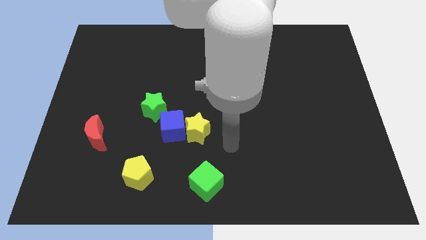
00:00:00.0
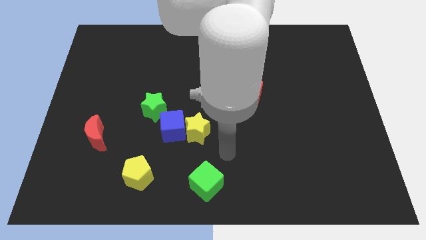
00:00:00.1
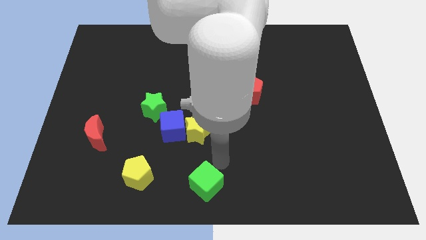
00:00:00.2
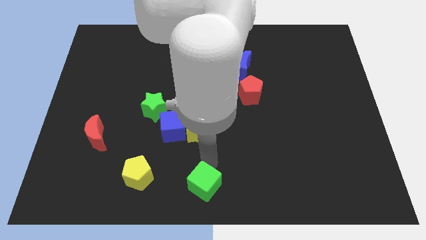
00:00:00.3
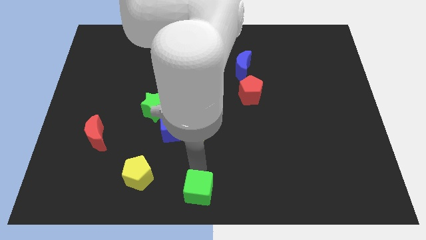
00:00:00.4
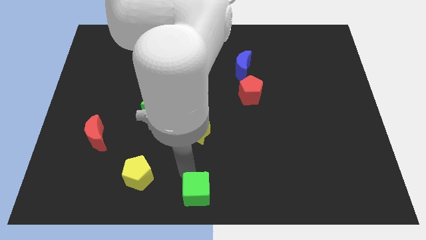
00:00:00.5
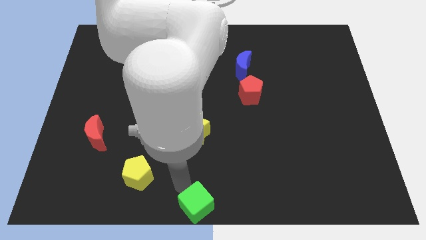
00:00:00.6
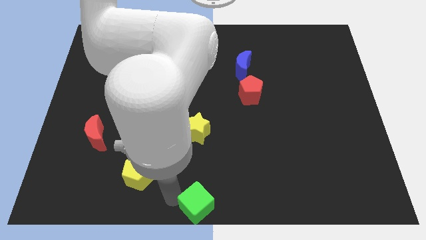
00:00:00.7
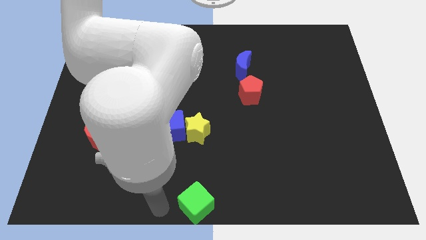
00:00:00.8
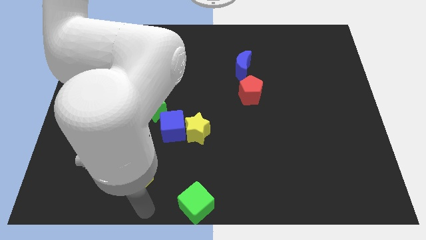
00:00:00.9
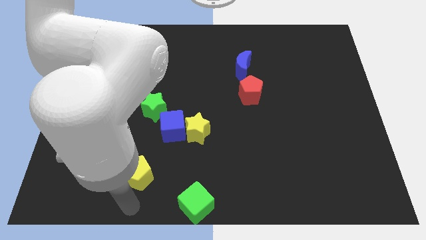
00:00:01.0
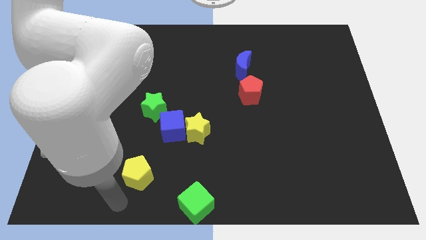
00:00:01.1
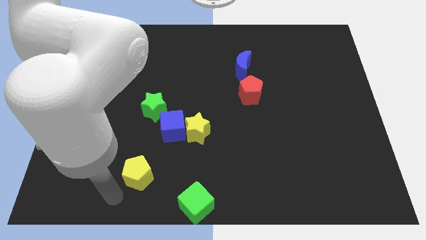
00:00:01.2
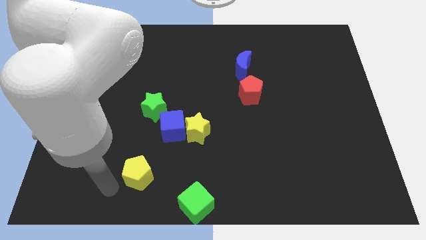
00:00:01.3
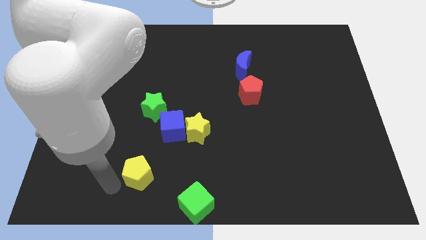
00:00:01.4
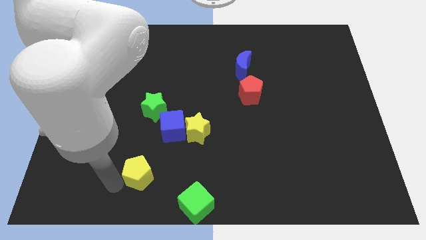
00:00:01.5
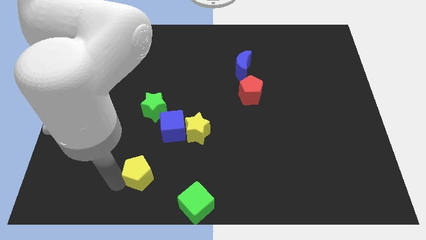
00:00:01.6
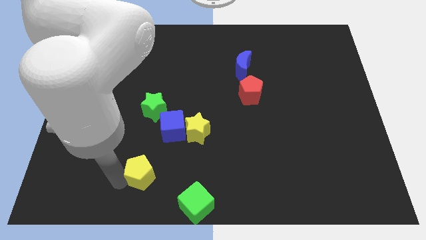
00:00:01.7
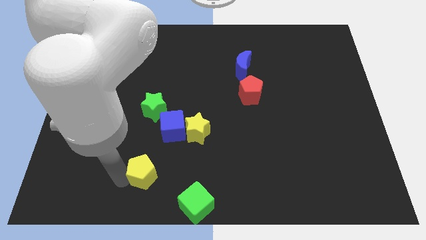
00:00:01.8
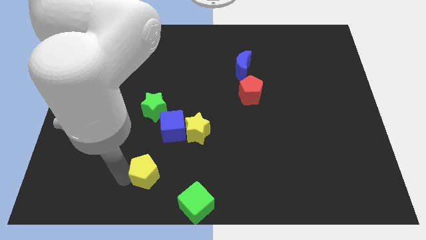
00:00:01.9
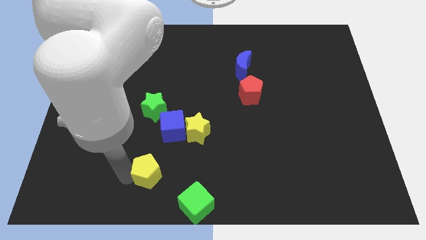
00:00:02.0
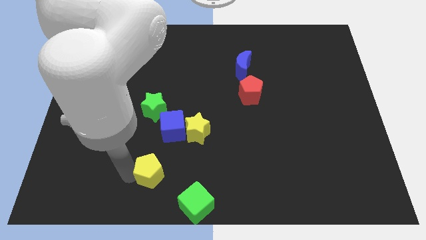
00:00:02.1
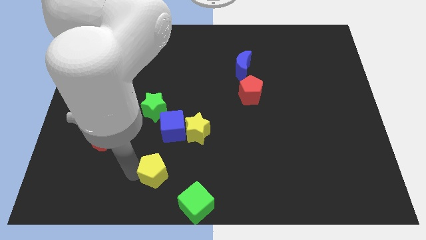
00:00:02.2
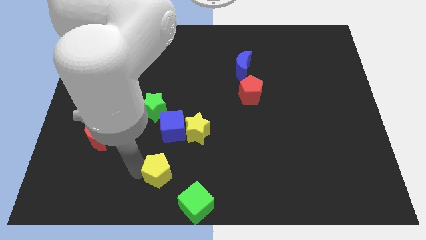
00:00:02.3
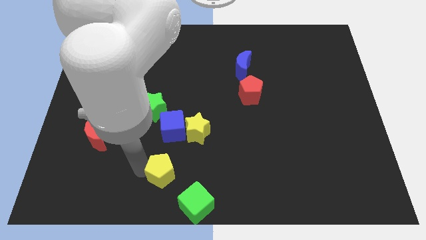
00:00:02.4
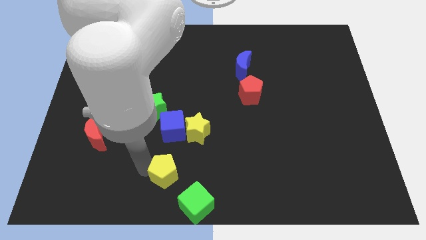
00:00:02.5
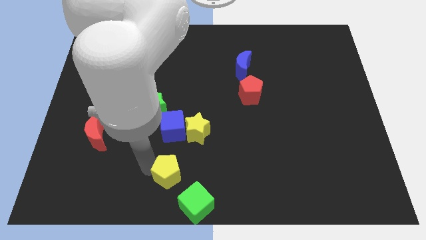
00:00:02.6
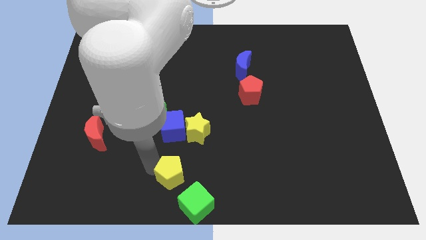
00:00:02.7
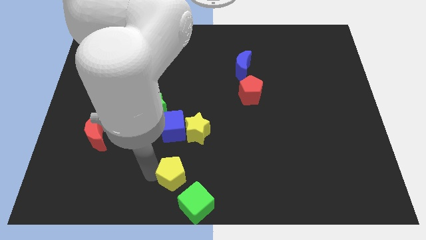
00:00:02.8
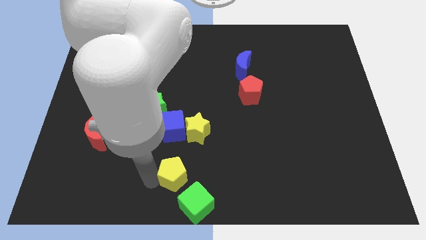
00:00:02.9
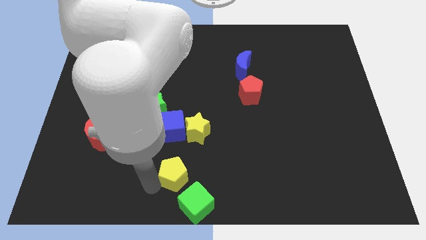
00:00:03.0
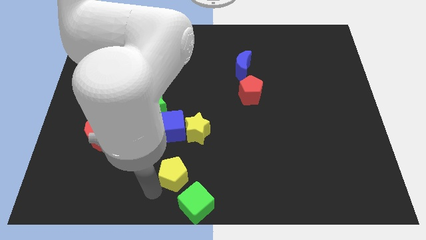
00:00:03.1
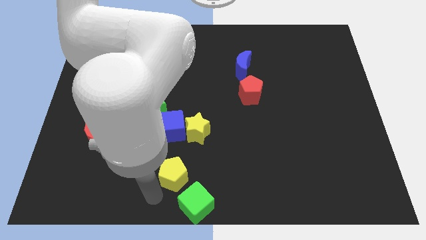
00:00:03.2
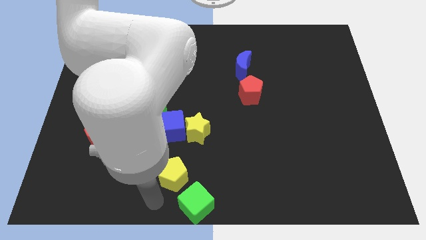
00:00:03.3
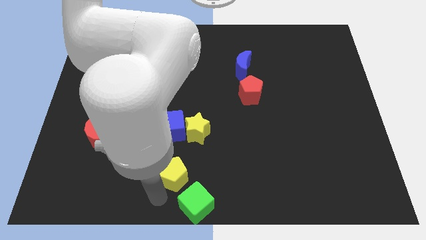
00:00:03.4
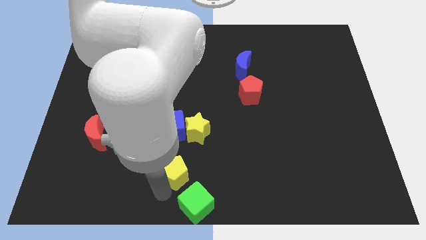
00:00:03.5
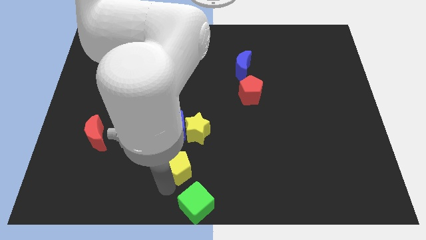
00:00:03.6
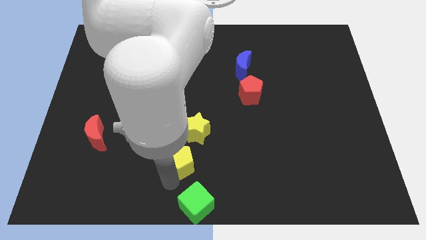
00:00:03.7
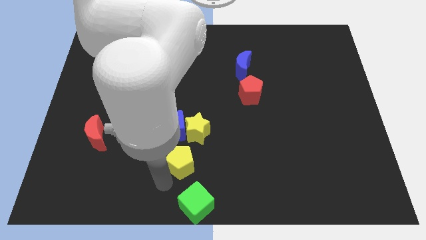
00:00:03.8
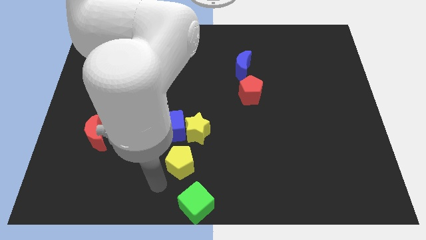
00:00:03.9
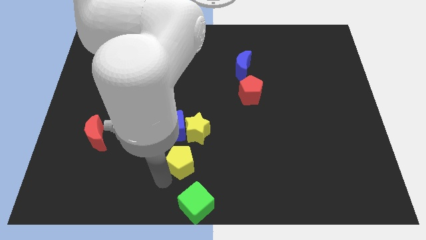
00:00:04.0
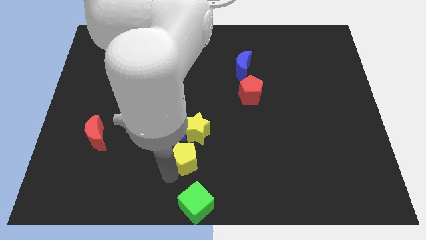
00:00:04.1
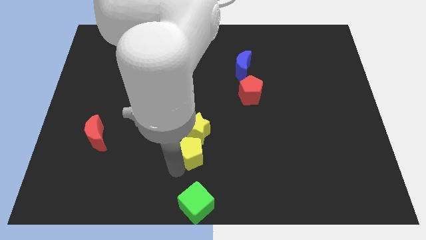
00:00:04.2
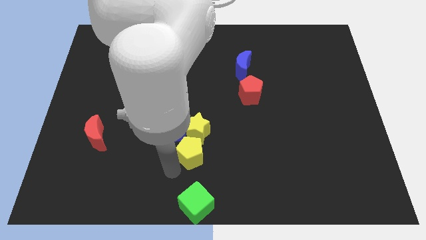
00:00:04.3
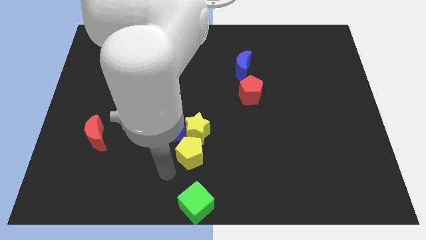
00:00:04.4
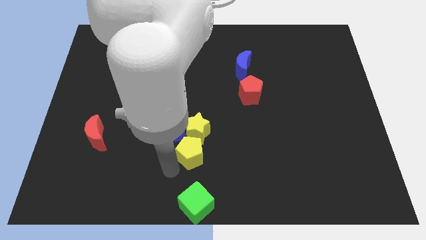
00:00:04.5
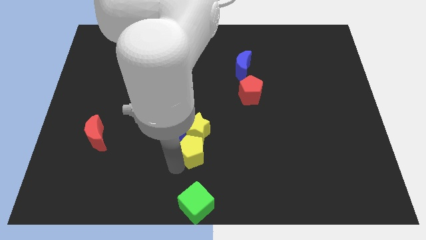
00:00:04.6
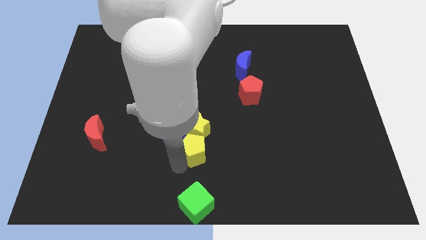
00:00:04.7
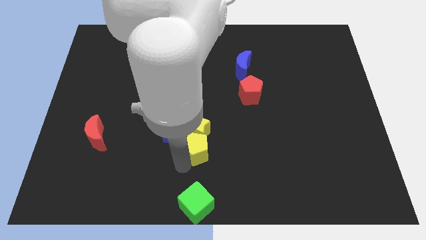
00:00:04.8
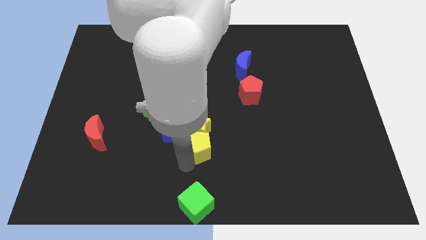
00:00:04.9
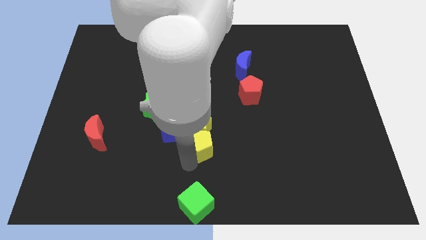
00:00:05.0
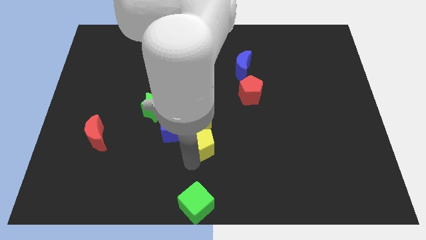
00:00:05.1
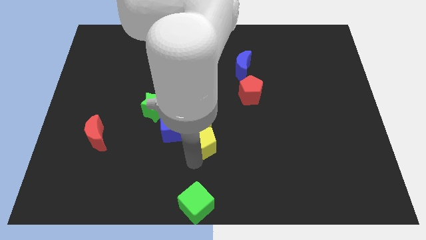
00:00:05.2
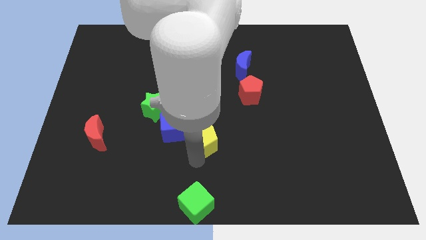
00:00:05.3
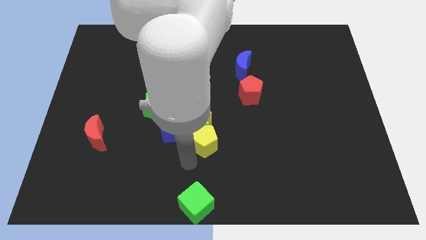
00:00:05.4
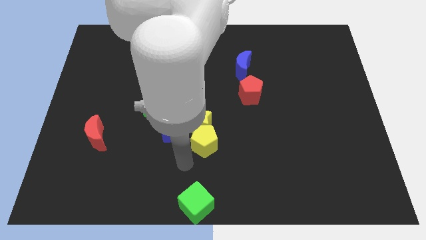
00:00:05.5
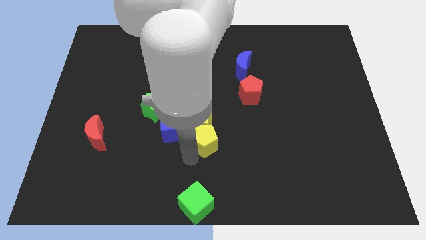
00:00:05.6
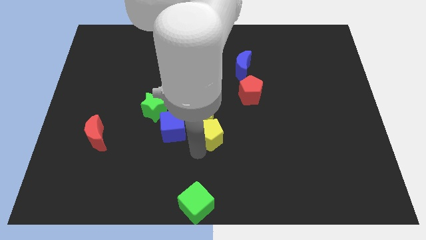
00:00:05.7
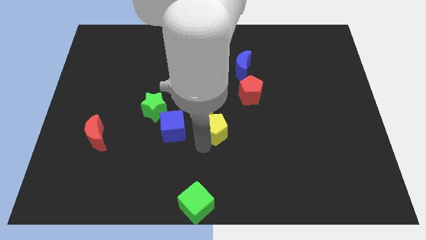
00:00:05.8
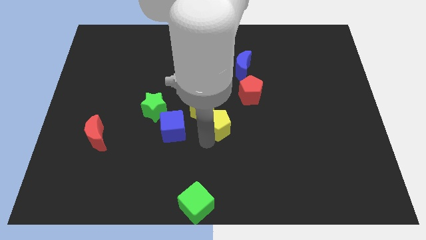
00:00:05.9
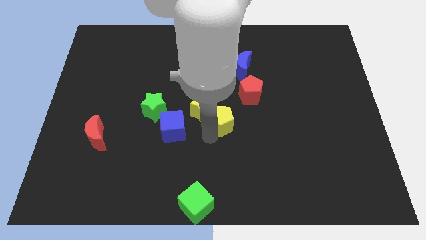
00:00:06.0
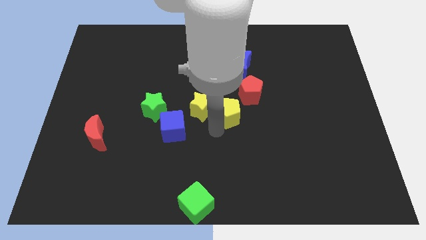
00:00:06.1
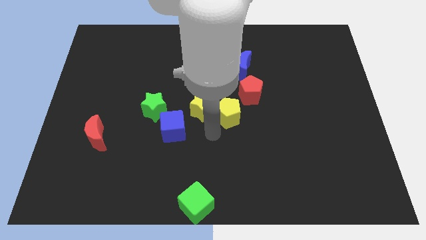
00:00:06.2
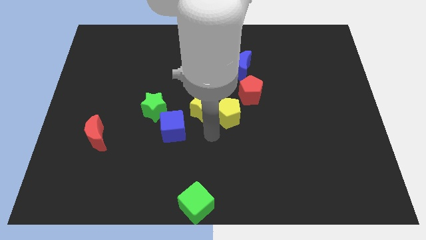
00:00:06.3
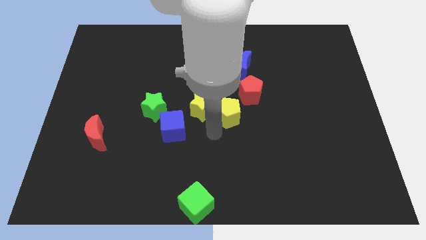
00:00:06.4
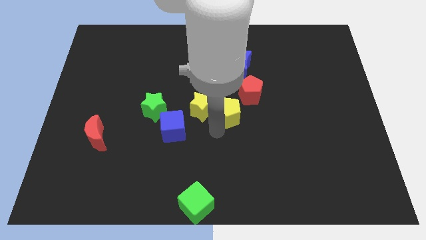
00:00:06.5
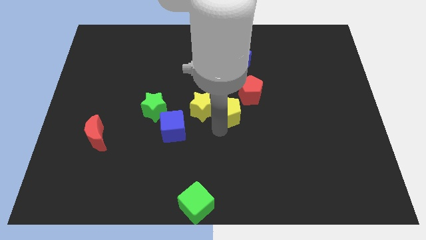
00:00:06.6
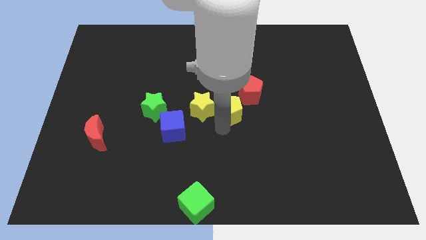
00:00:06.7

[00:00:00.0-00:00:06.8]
push the yellow pentagon to the bottom of the blue moon
